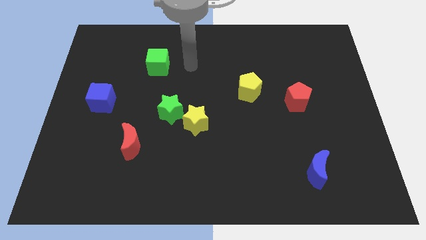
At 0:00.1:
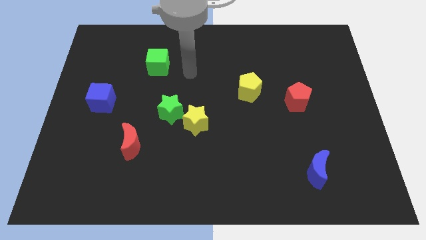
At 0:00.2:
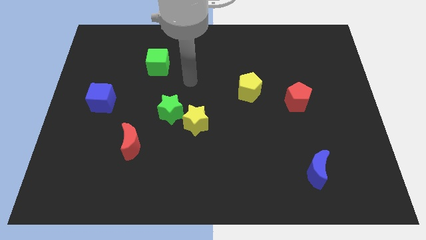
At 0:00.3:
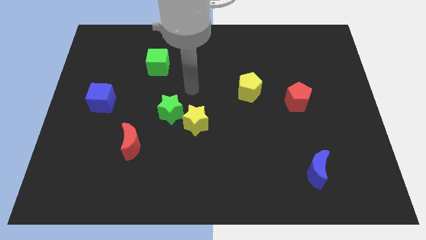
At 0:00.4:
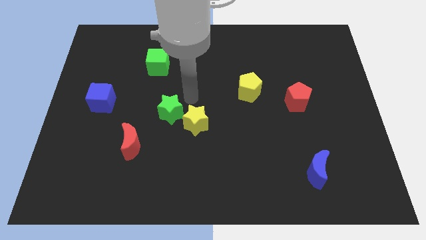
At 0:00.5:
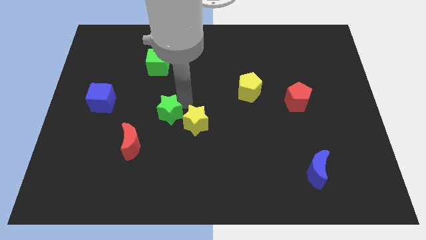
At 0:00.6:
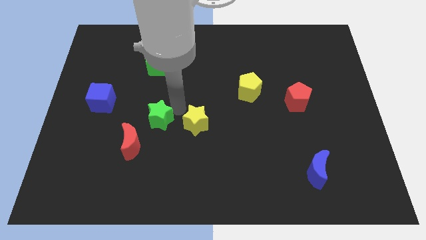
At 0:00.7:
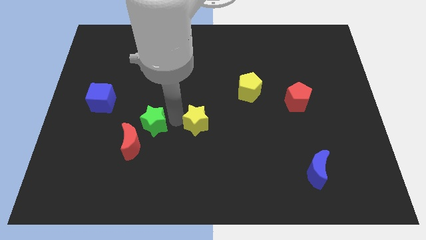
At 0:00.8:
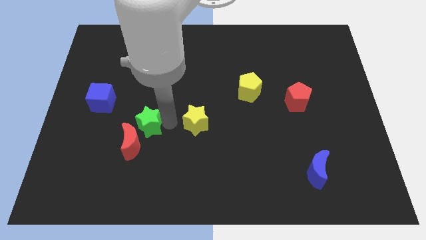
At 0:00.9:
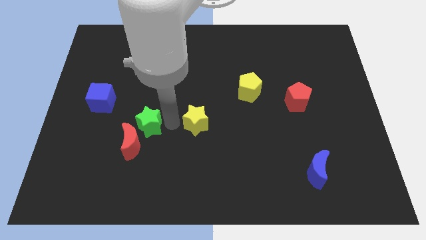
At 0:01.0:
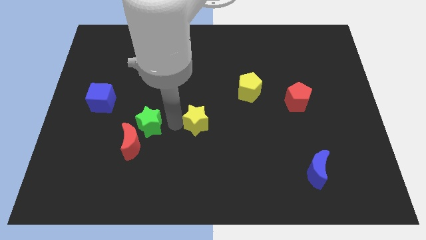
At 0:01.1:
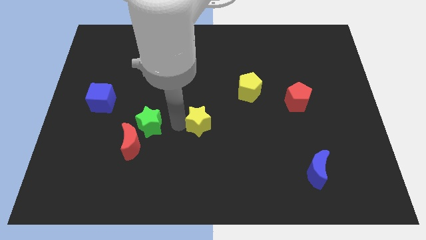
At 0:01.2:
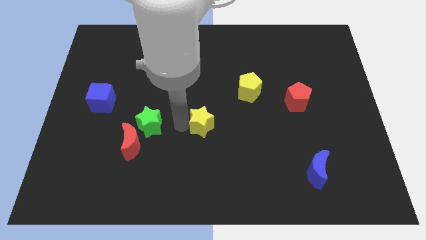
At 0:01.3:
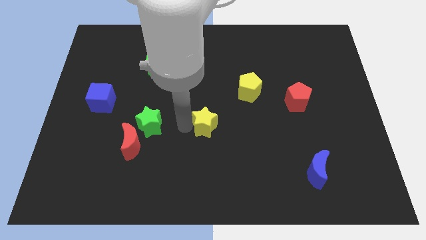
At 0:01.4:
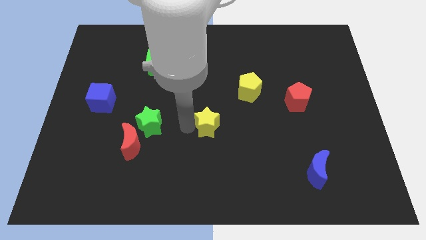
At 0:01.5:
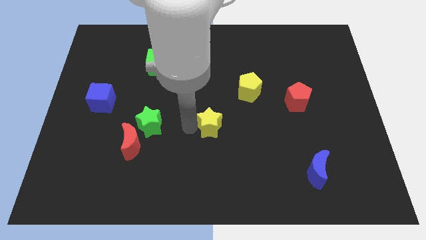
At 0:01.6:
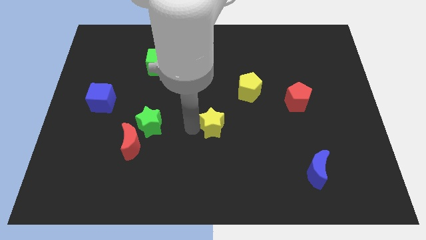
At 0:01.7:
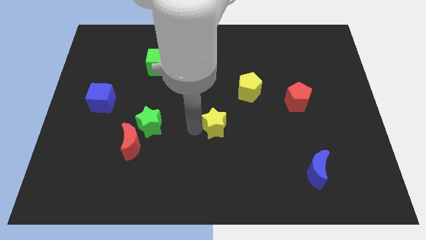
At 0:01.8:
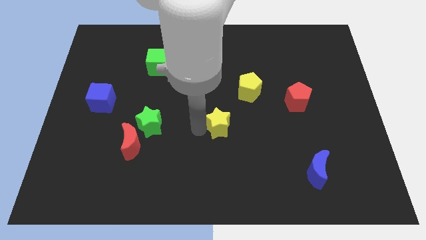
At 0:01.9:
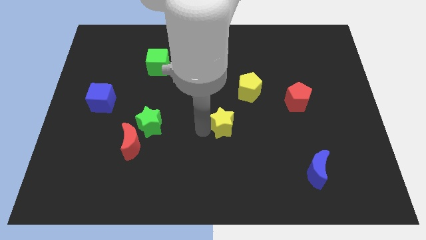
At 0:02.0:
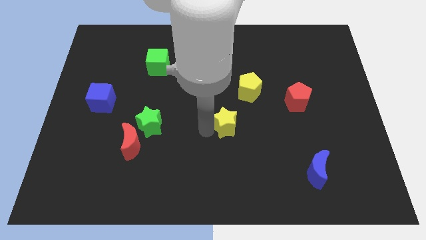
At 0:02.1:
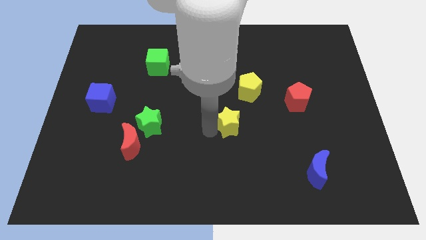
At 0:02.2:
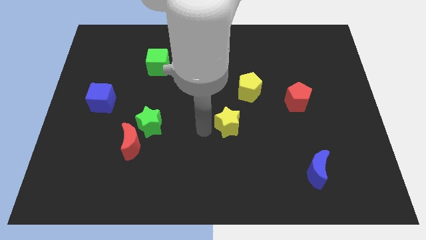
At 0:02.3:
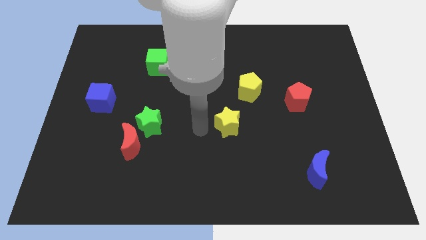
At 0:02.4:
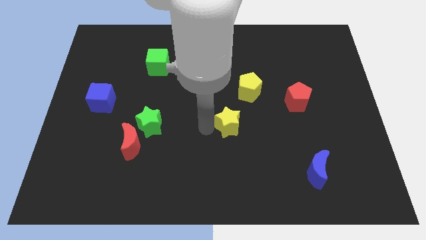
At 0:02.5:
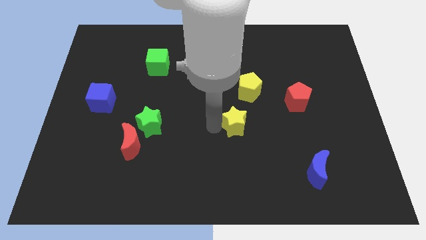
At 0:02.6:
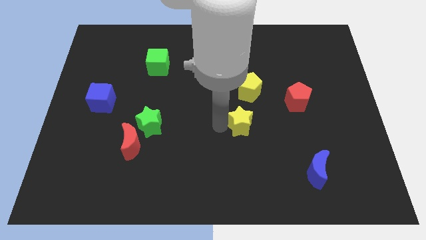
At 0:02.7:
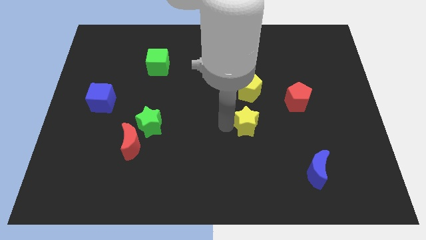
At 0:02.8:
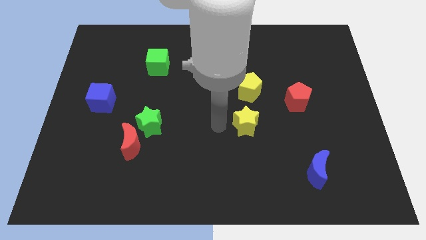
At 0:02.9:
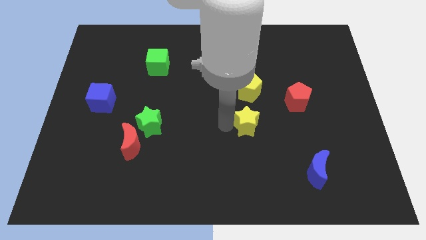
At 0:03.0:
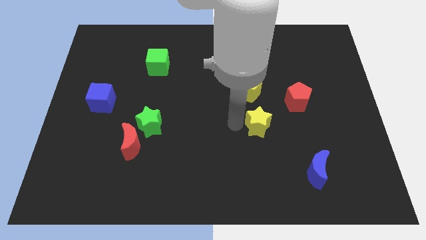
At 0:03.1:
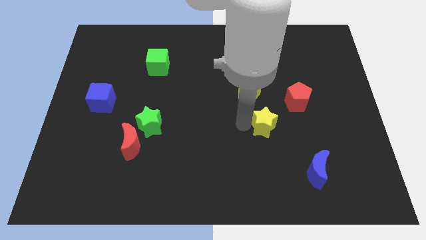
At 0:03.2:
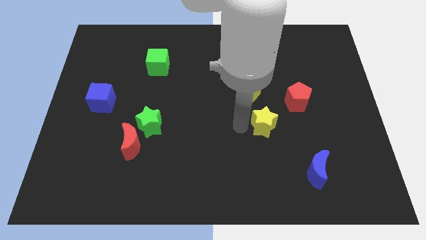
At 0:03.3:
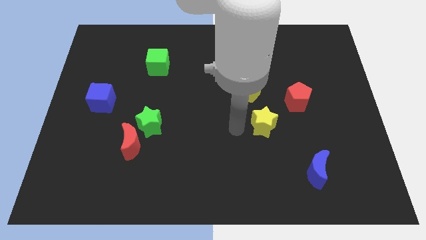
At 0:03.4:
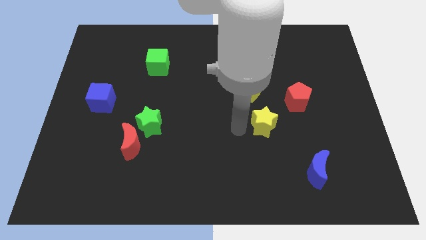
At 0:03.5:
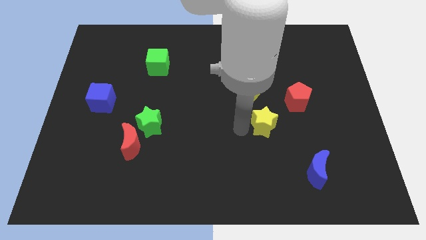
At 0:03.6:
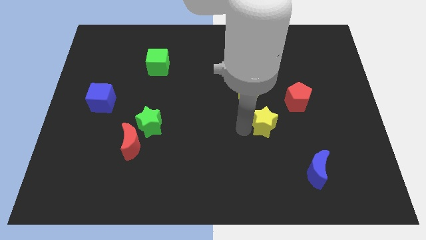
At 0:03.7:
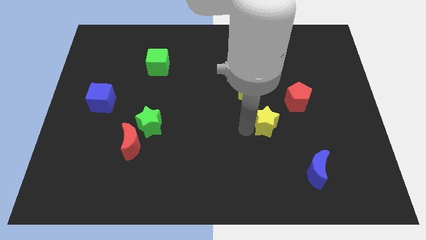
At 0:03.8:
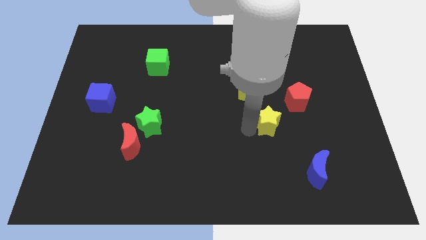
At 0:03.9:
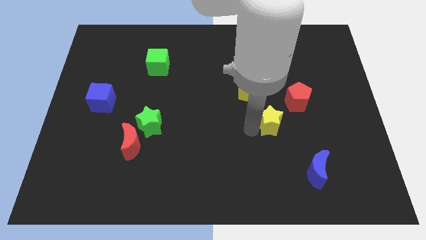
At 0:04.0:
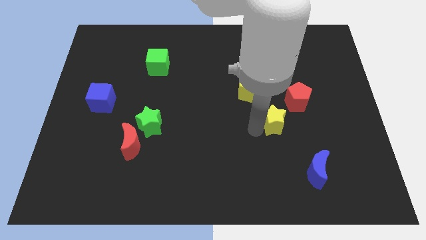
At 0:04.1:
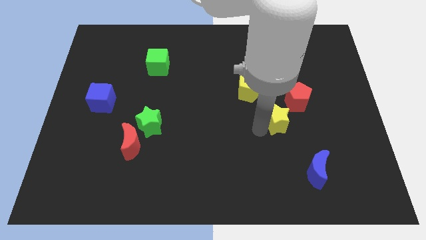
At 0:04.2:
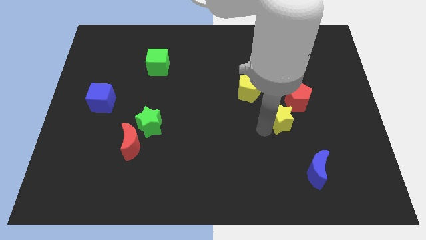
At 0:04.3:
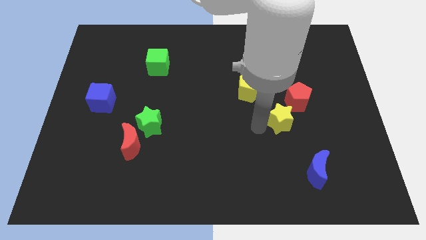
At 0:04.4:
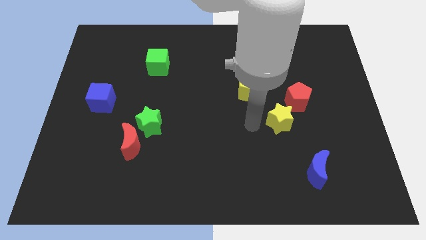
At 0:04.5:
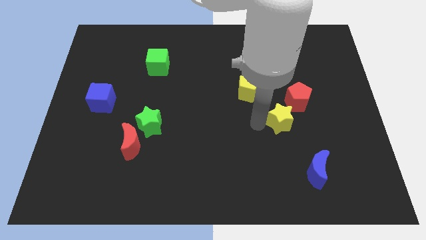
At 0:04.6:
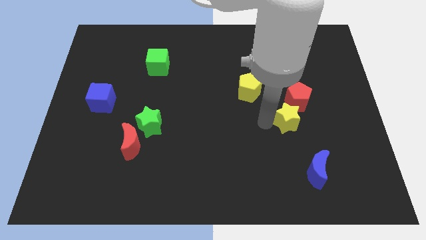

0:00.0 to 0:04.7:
move the yellow star to the right

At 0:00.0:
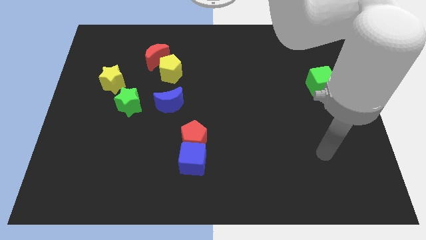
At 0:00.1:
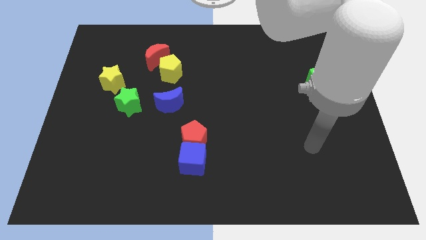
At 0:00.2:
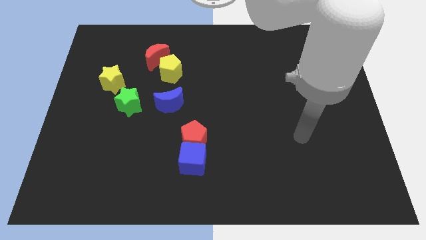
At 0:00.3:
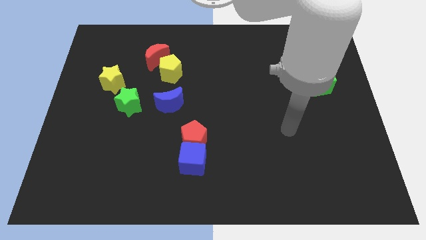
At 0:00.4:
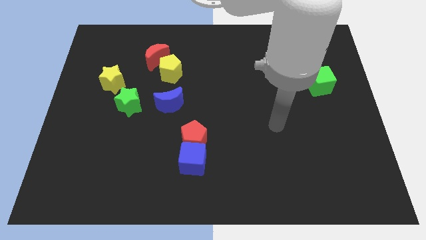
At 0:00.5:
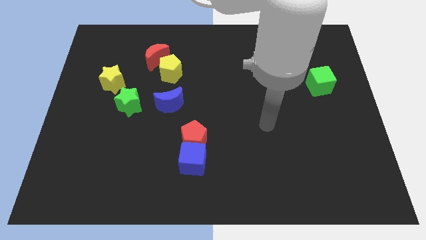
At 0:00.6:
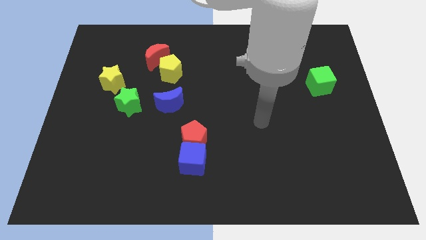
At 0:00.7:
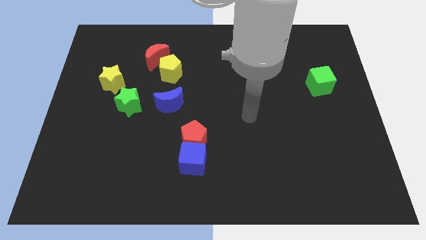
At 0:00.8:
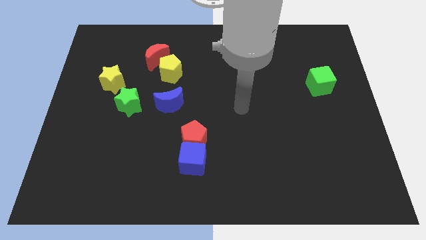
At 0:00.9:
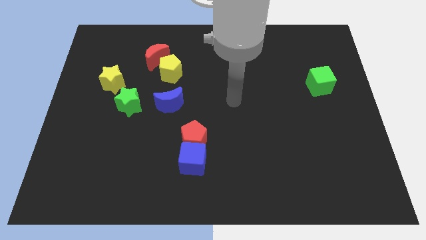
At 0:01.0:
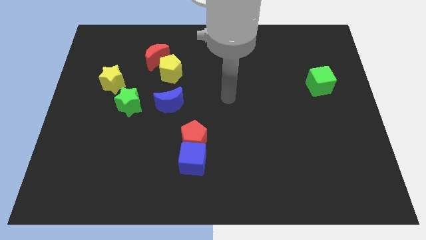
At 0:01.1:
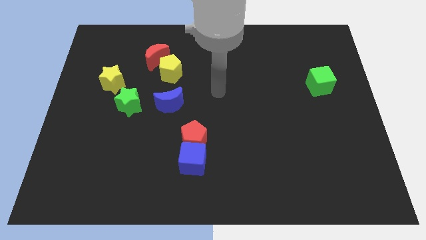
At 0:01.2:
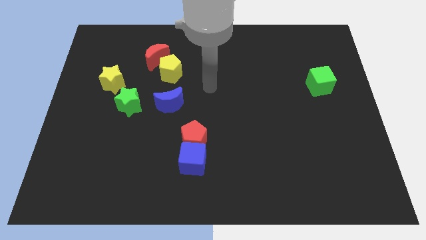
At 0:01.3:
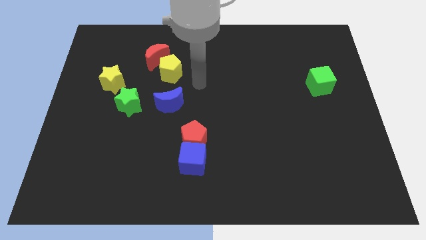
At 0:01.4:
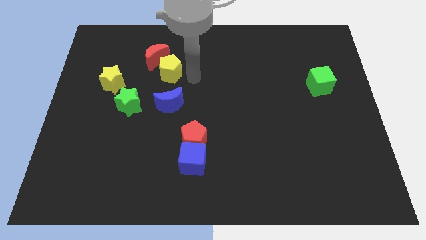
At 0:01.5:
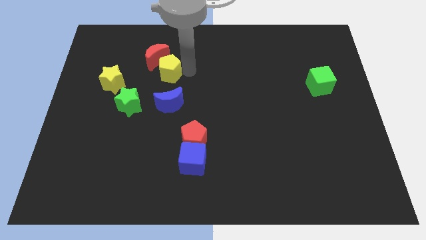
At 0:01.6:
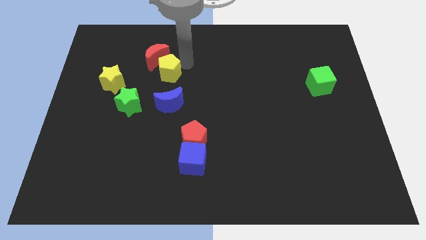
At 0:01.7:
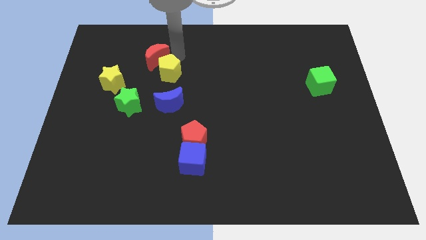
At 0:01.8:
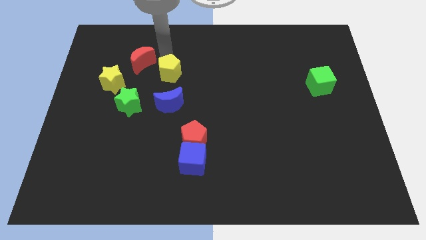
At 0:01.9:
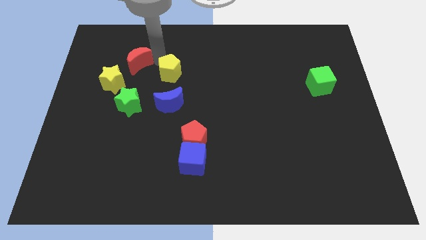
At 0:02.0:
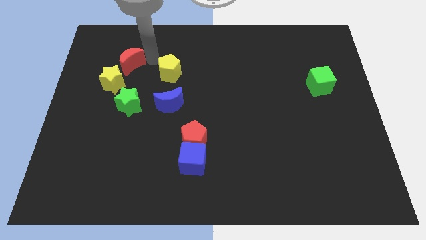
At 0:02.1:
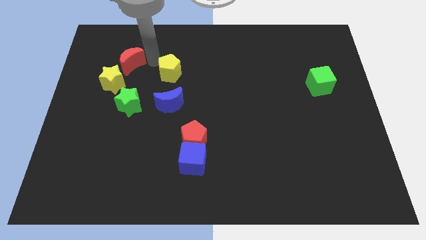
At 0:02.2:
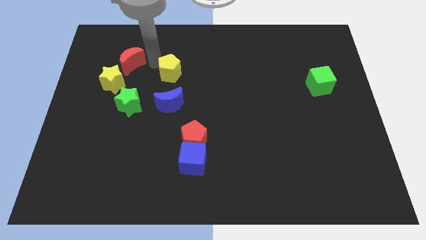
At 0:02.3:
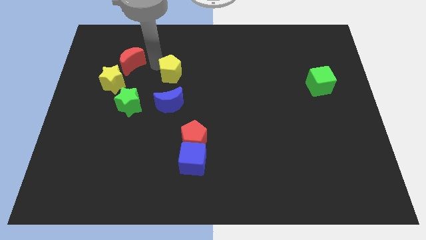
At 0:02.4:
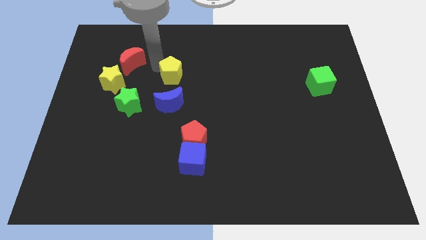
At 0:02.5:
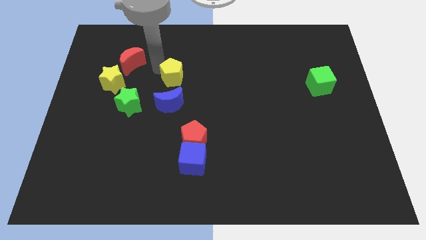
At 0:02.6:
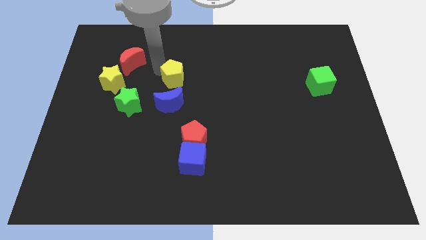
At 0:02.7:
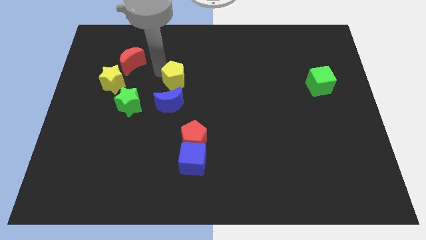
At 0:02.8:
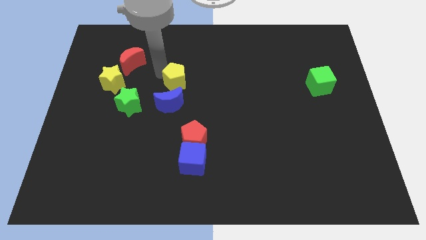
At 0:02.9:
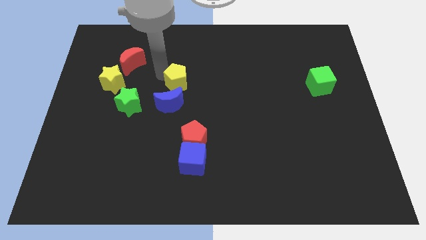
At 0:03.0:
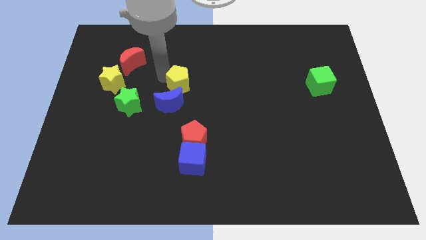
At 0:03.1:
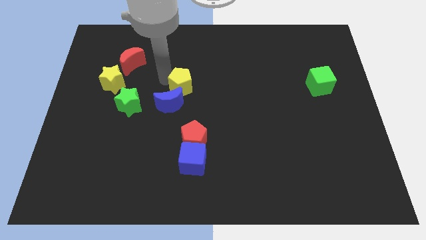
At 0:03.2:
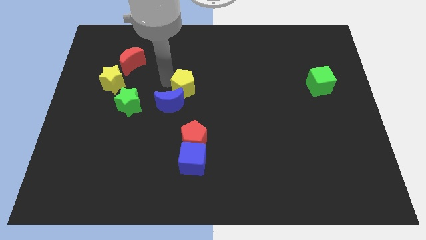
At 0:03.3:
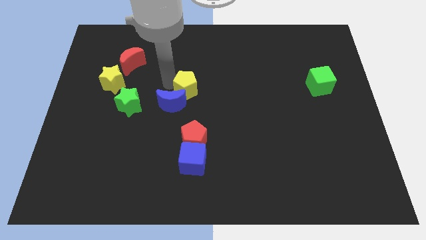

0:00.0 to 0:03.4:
slightly push the yellow pentagon downwards and then right

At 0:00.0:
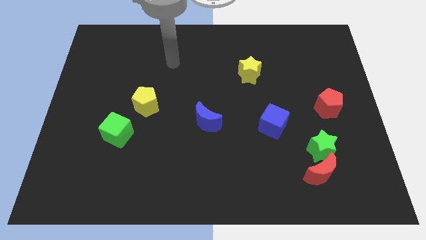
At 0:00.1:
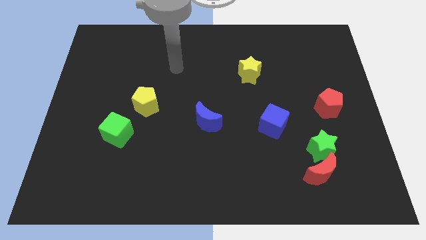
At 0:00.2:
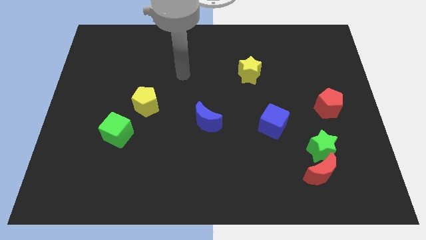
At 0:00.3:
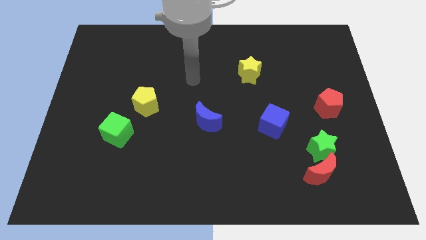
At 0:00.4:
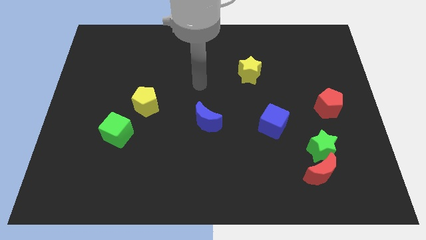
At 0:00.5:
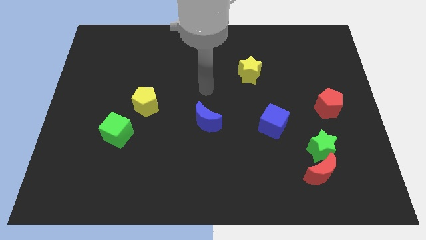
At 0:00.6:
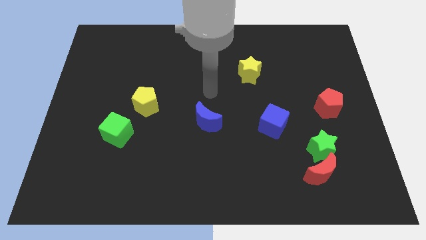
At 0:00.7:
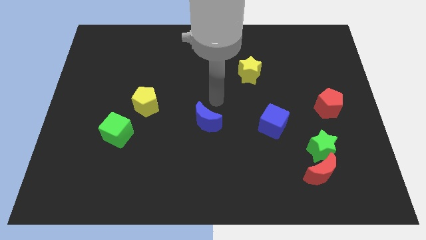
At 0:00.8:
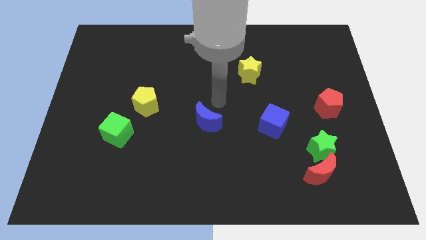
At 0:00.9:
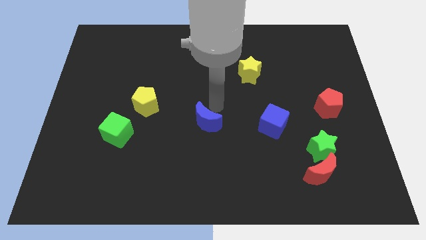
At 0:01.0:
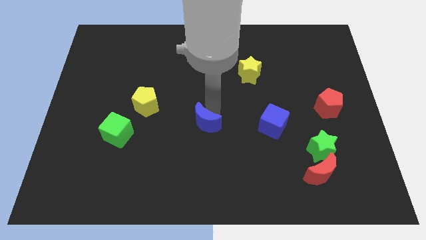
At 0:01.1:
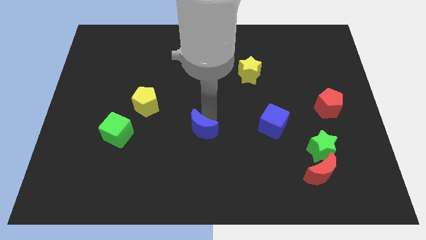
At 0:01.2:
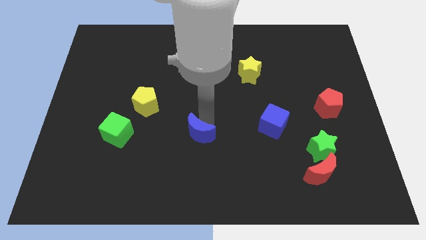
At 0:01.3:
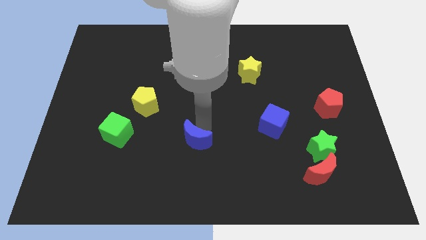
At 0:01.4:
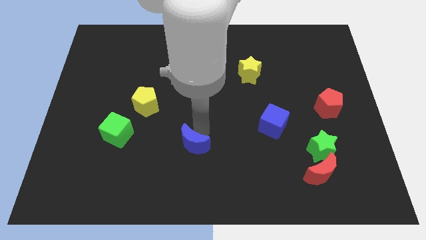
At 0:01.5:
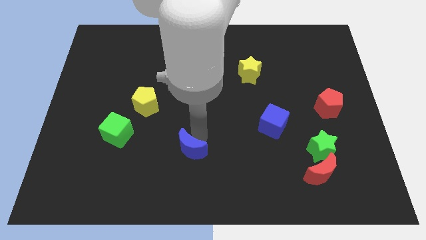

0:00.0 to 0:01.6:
push the blue moon a little bit diagonally downwards and left
